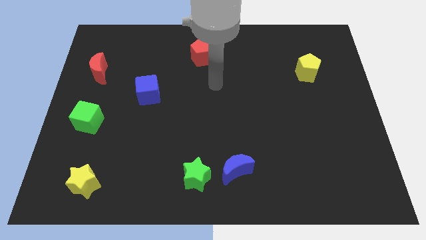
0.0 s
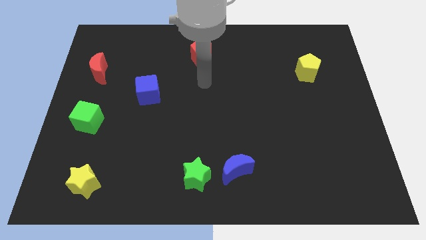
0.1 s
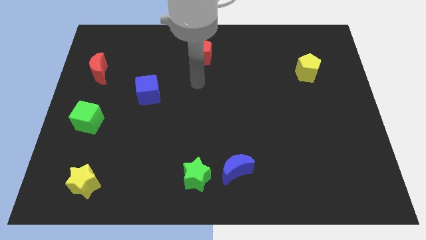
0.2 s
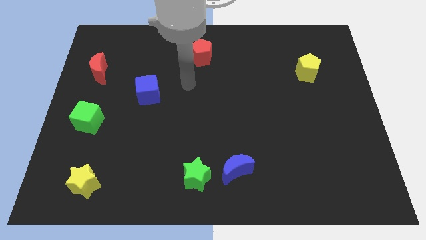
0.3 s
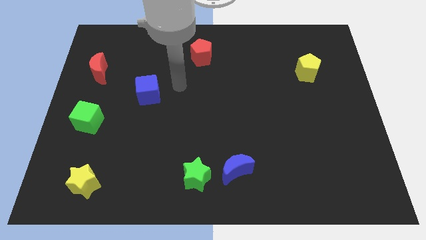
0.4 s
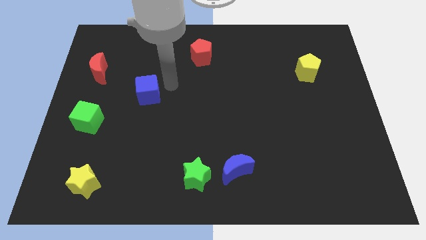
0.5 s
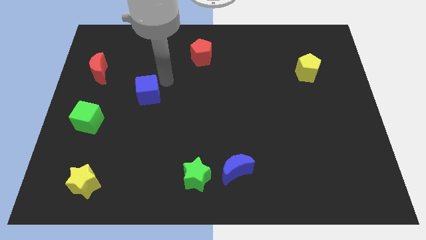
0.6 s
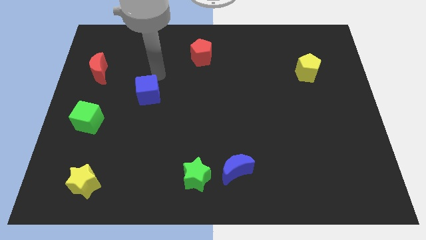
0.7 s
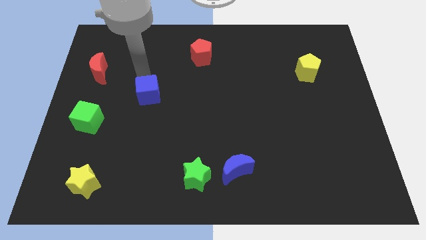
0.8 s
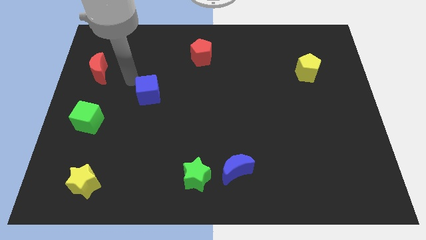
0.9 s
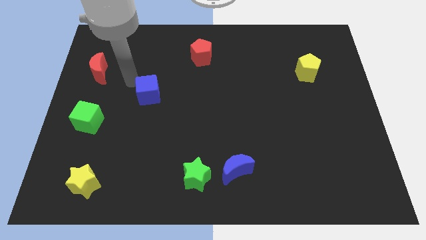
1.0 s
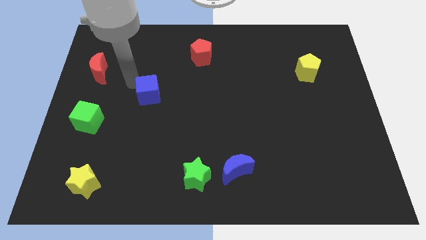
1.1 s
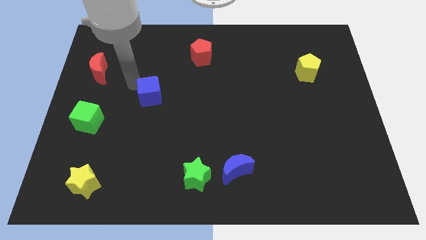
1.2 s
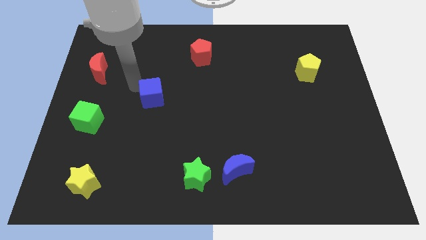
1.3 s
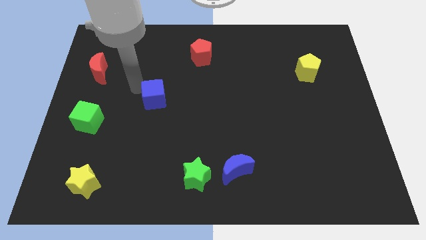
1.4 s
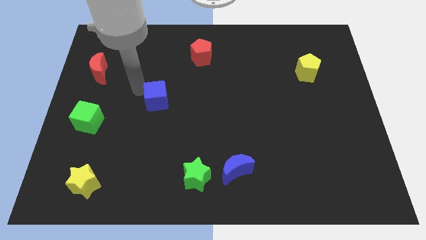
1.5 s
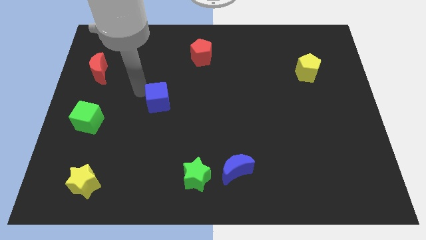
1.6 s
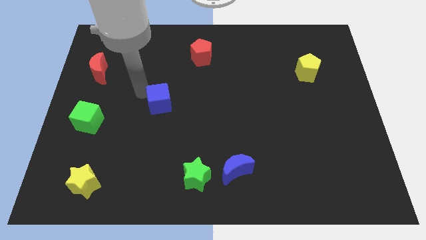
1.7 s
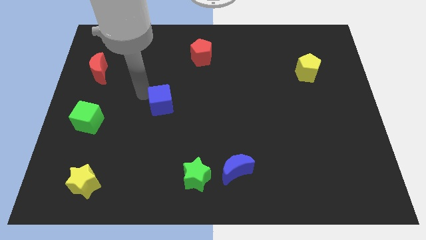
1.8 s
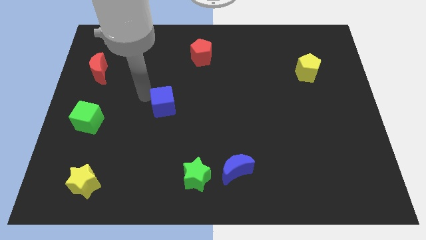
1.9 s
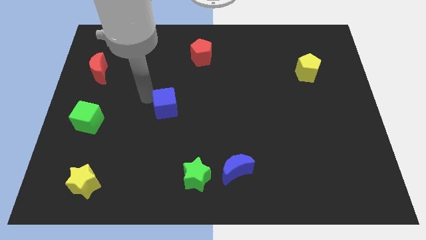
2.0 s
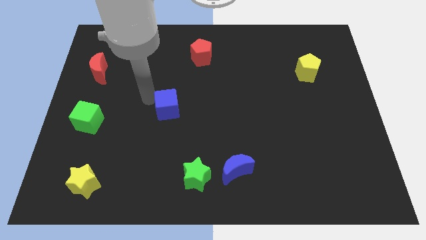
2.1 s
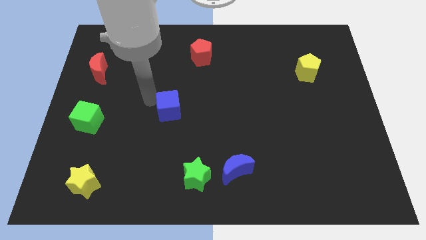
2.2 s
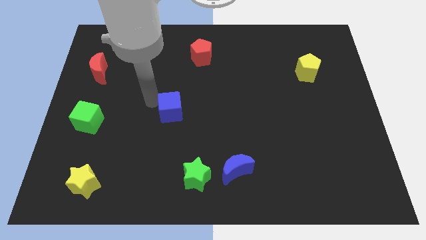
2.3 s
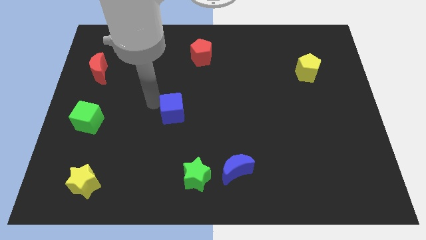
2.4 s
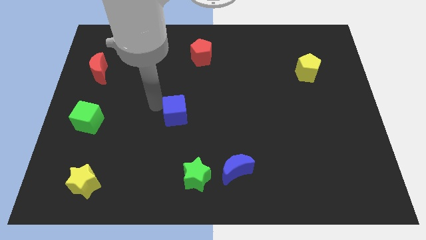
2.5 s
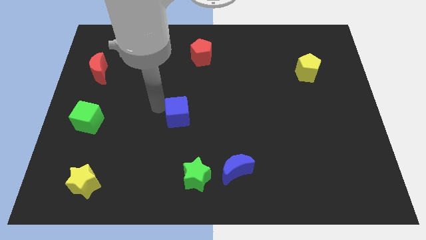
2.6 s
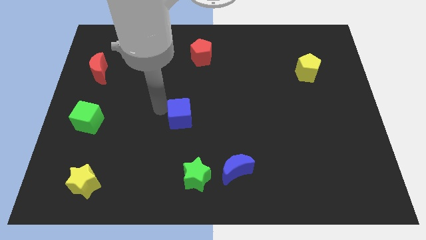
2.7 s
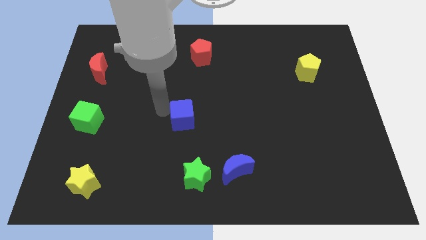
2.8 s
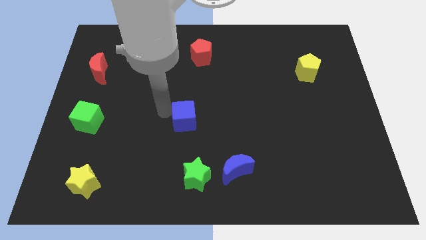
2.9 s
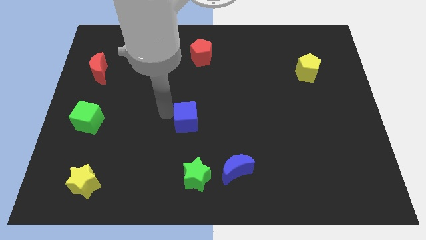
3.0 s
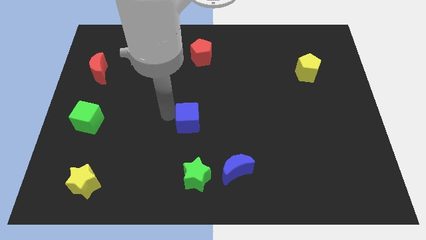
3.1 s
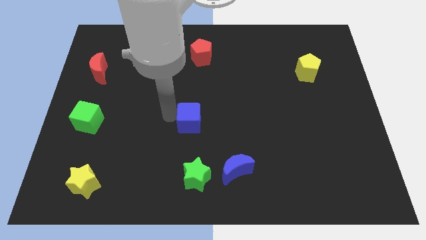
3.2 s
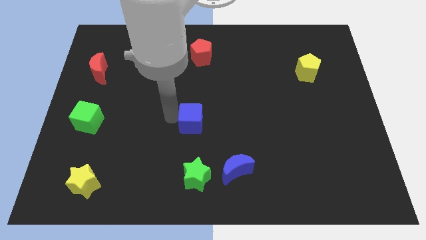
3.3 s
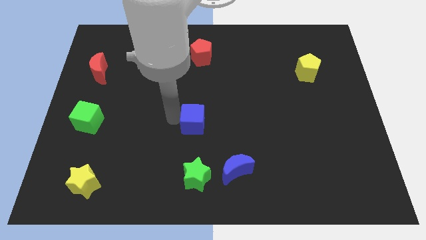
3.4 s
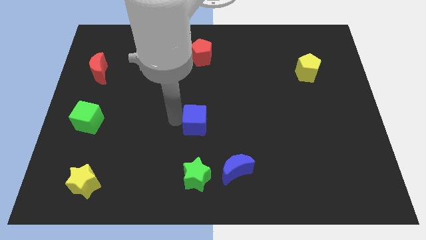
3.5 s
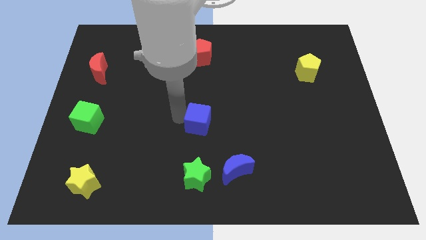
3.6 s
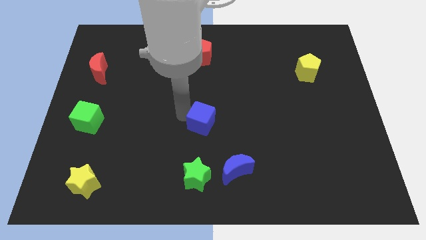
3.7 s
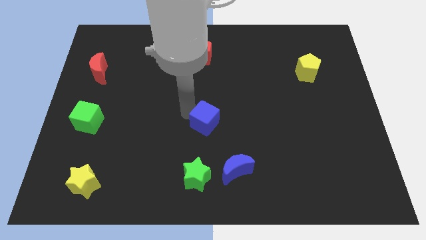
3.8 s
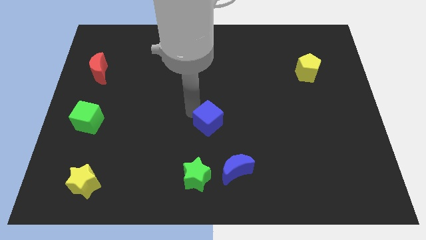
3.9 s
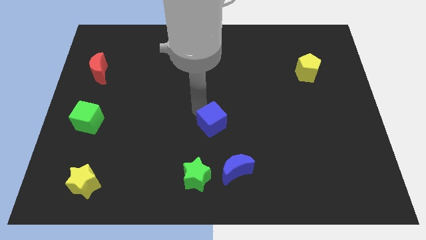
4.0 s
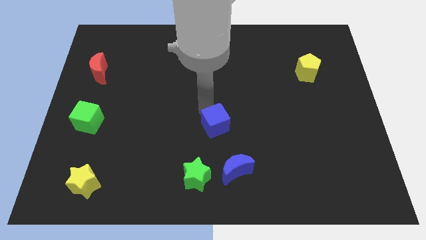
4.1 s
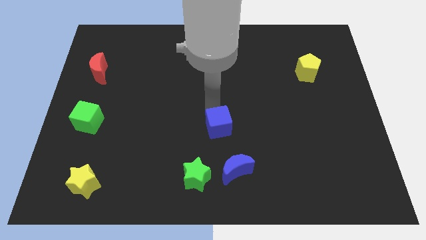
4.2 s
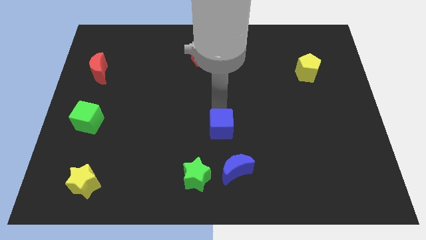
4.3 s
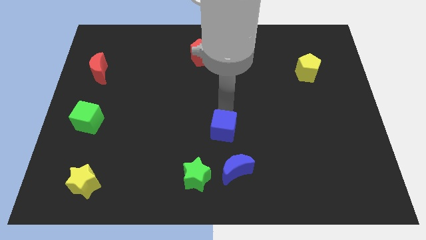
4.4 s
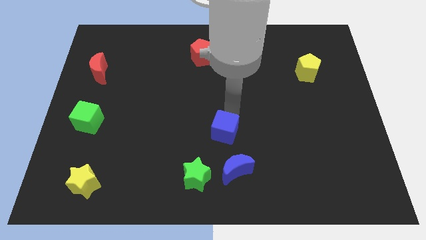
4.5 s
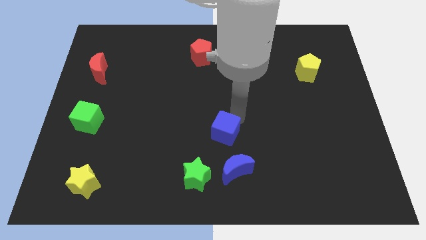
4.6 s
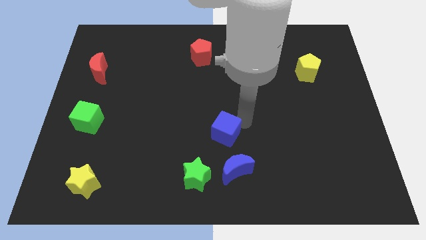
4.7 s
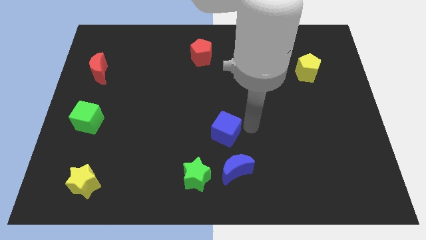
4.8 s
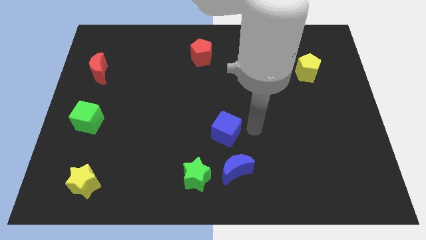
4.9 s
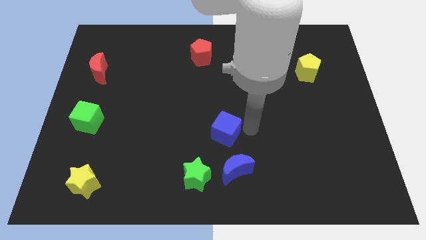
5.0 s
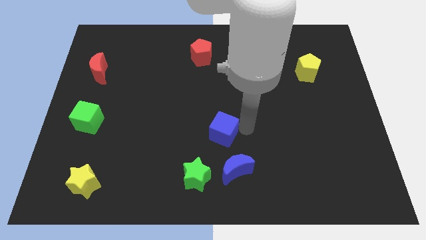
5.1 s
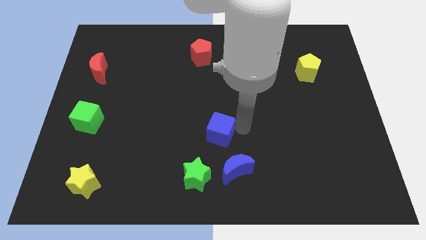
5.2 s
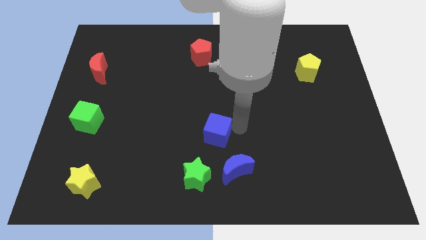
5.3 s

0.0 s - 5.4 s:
put the blue cube to the top right side of the green star

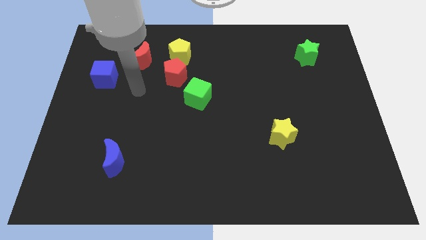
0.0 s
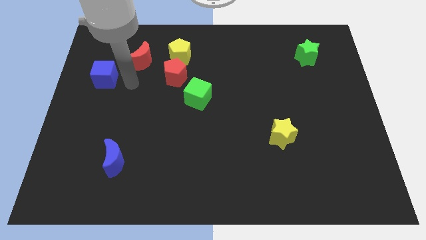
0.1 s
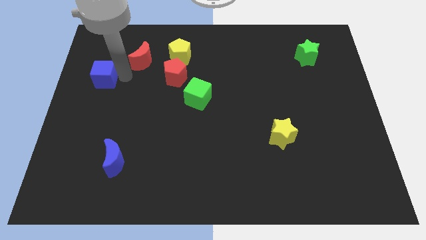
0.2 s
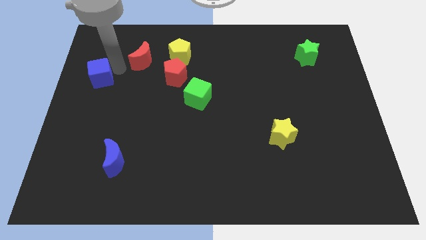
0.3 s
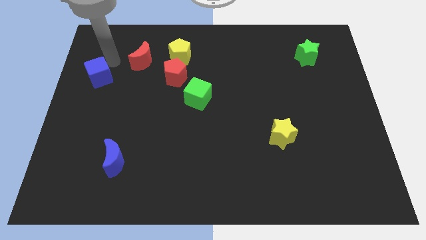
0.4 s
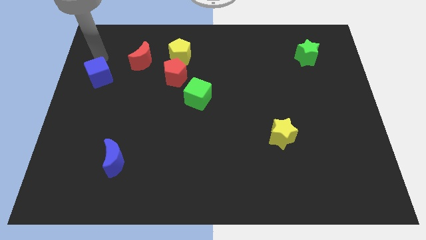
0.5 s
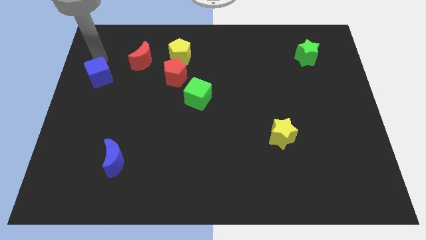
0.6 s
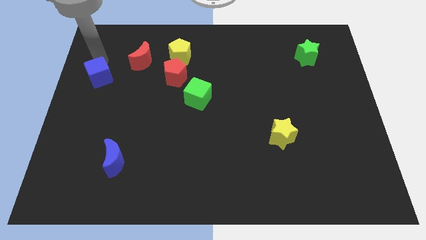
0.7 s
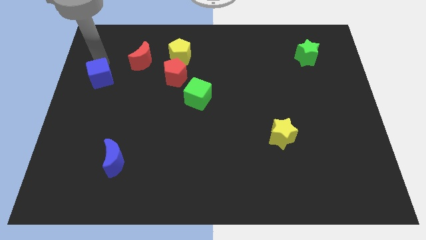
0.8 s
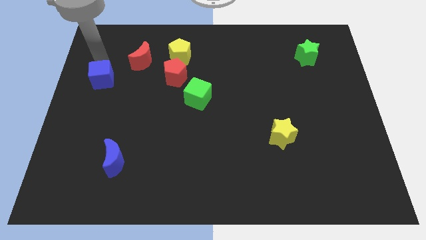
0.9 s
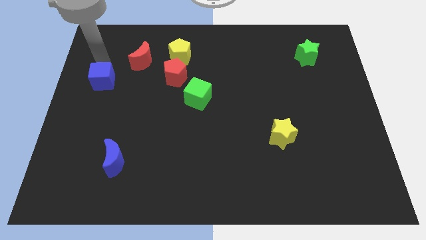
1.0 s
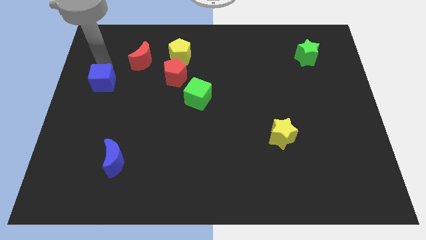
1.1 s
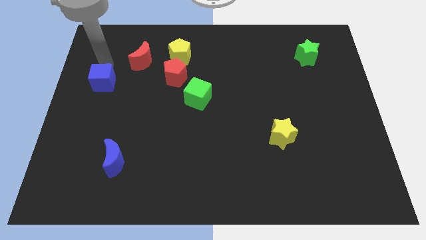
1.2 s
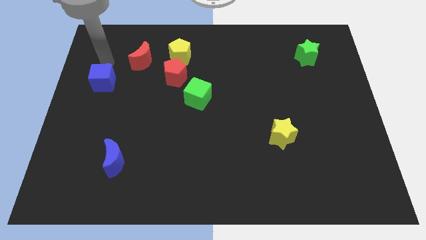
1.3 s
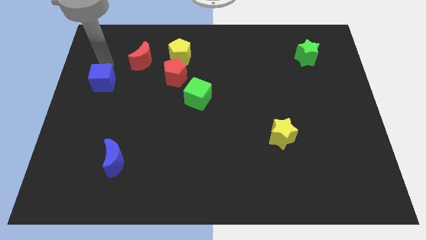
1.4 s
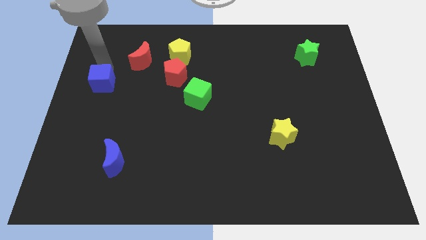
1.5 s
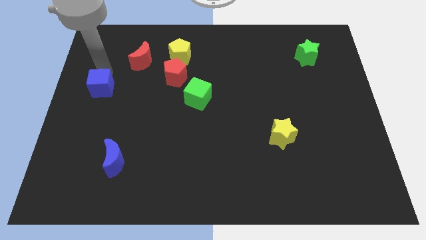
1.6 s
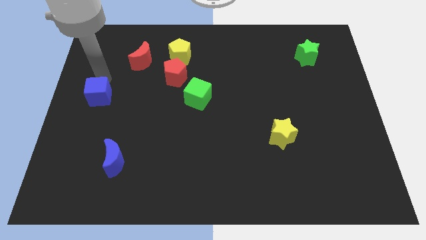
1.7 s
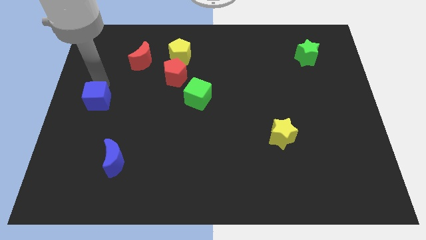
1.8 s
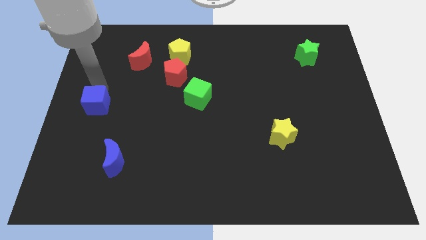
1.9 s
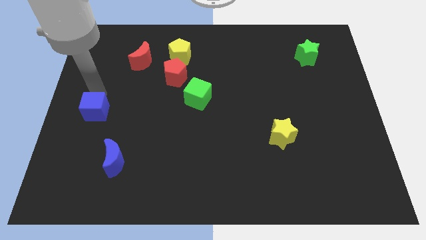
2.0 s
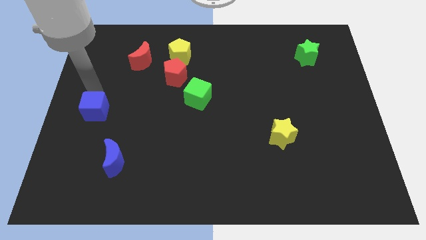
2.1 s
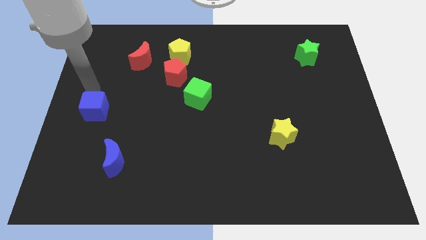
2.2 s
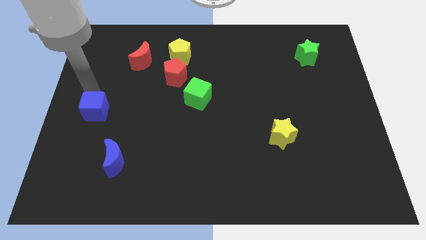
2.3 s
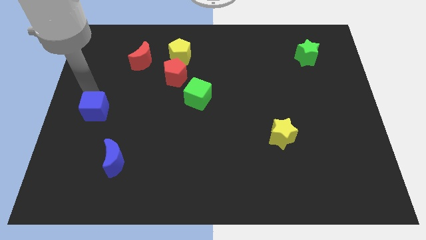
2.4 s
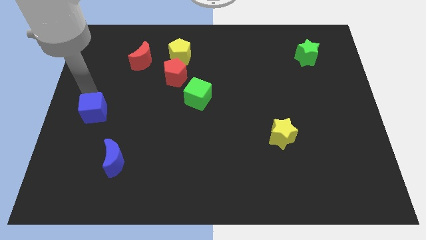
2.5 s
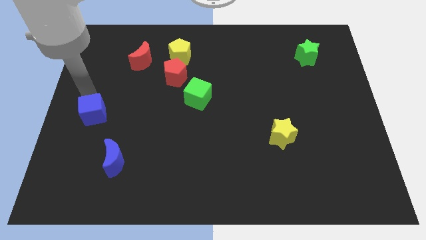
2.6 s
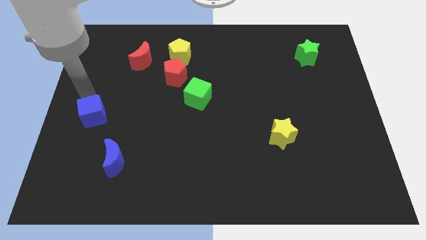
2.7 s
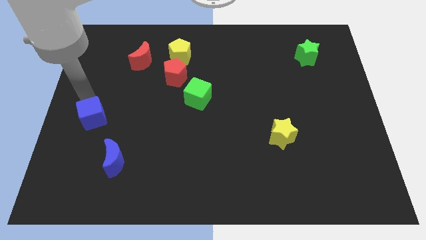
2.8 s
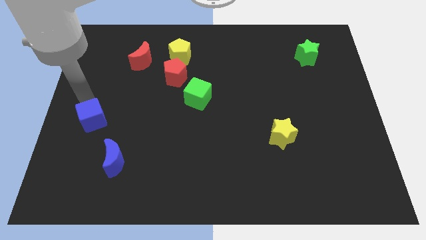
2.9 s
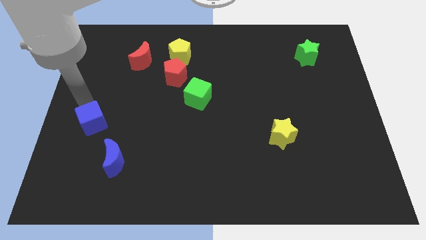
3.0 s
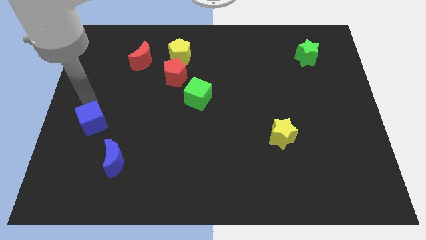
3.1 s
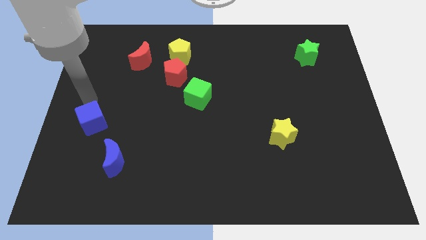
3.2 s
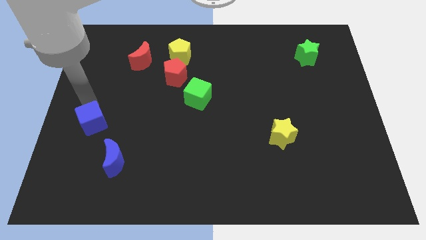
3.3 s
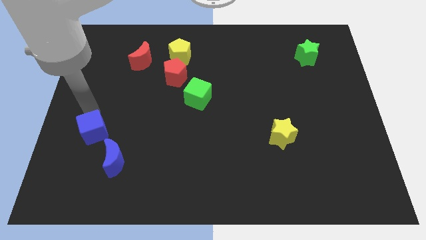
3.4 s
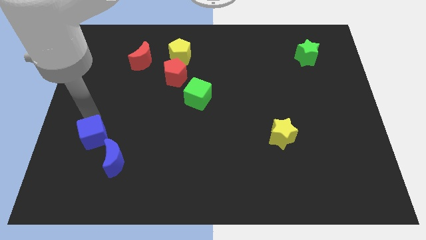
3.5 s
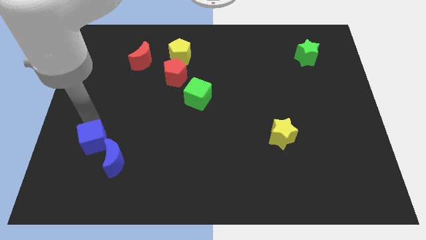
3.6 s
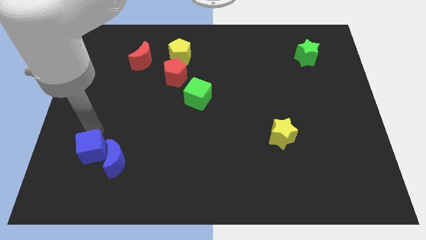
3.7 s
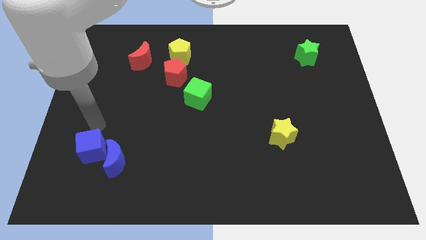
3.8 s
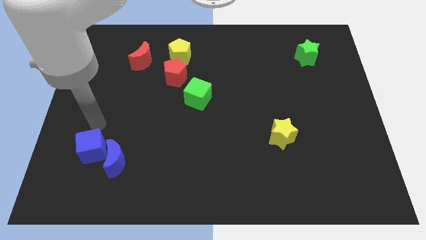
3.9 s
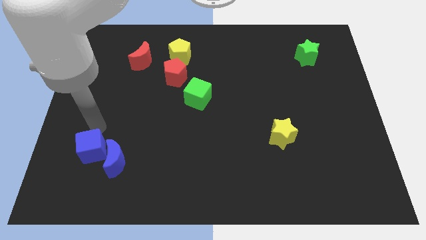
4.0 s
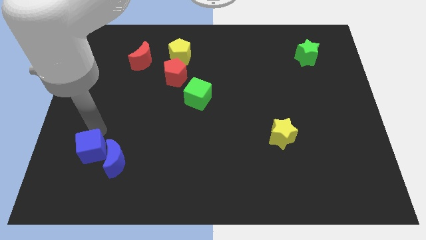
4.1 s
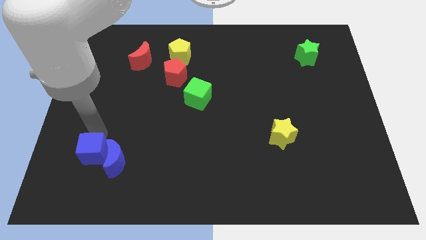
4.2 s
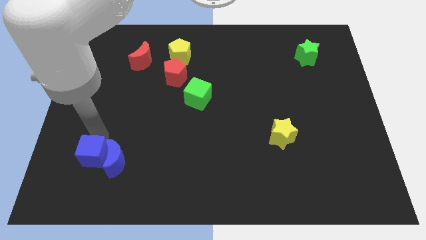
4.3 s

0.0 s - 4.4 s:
put the blue cube diagonally down and to the left of the blue moon
